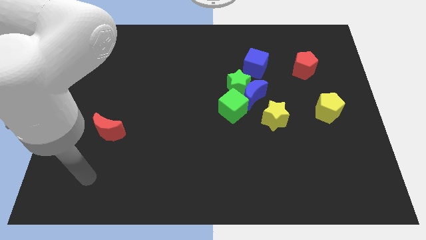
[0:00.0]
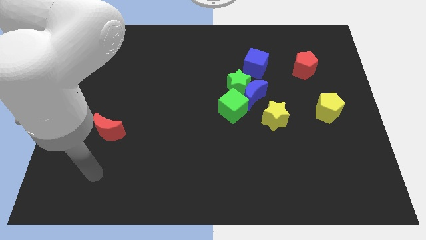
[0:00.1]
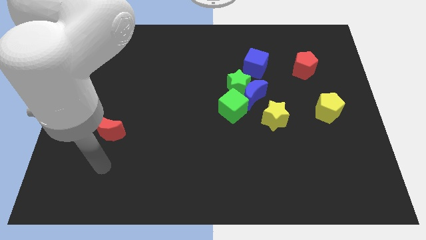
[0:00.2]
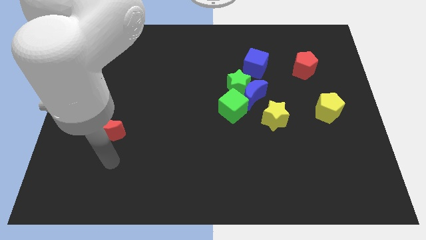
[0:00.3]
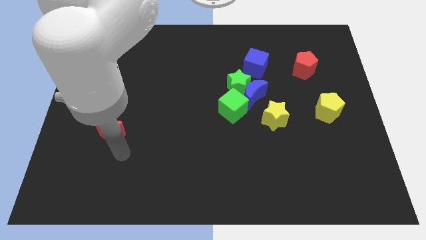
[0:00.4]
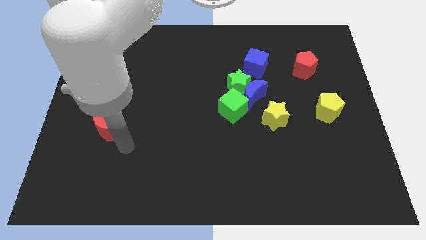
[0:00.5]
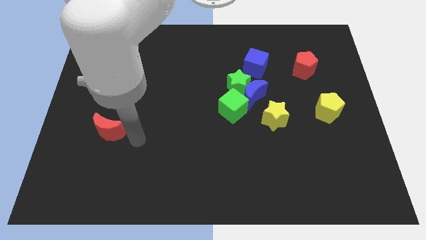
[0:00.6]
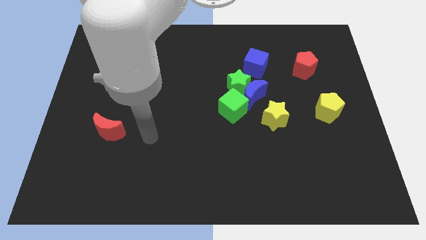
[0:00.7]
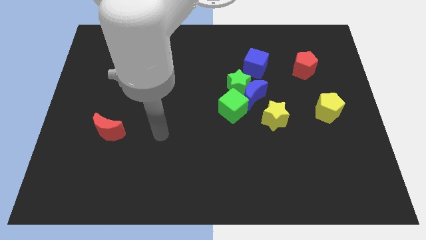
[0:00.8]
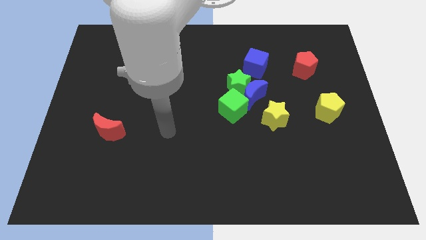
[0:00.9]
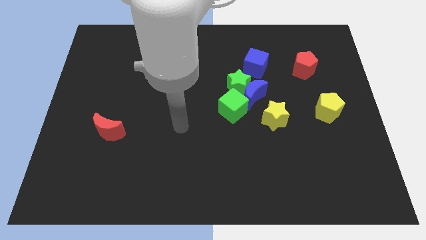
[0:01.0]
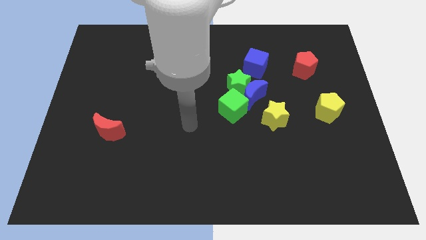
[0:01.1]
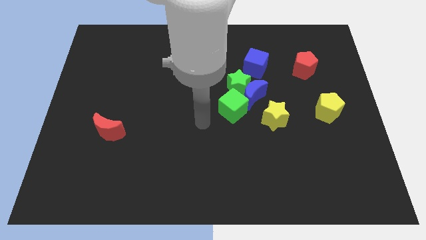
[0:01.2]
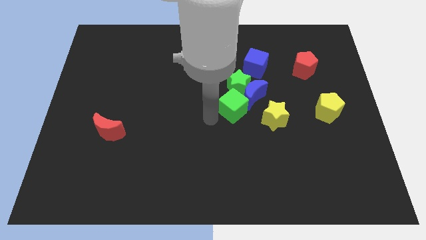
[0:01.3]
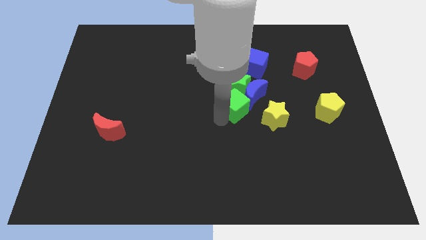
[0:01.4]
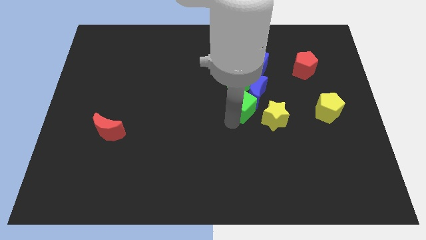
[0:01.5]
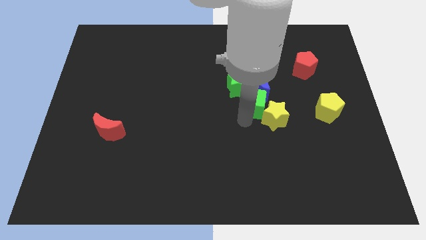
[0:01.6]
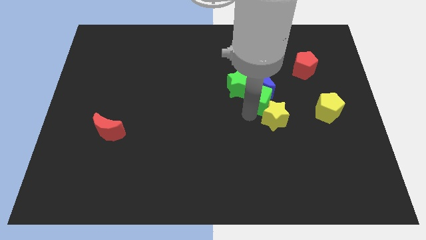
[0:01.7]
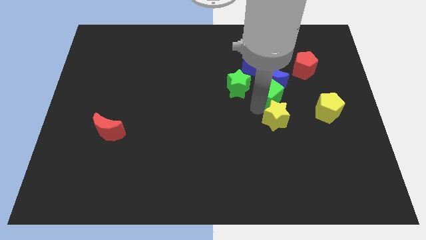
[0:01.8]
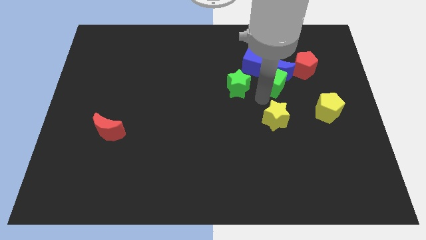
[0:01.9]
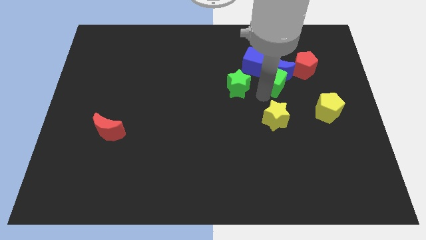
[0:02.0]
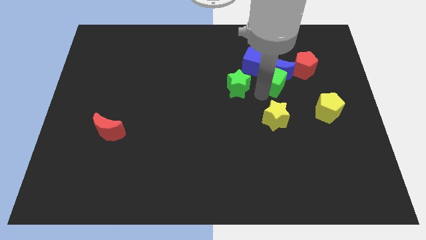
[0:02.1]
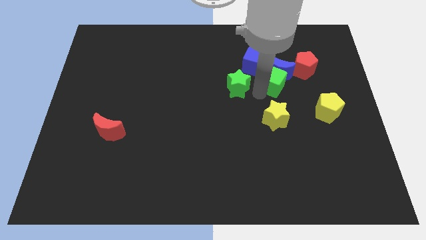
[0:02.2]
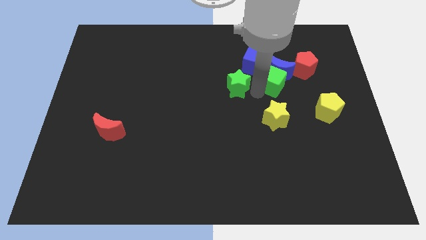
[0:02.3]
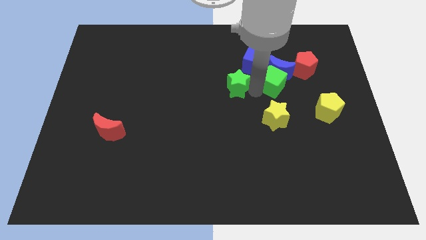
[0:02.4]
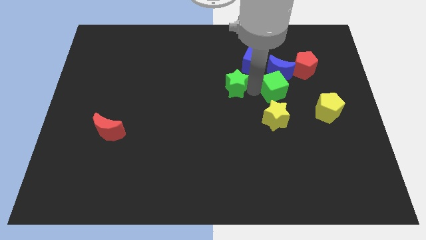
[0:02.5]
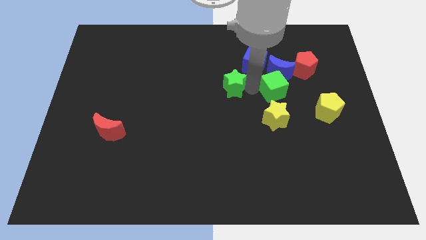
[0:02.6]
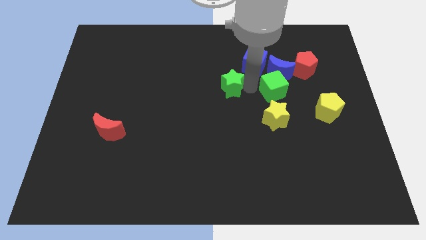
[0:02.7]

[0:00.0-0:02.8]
pull the green star apart from the blue moon, green cube, and blue cube

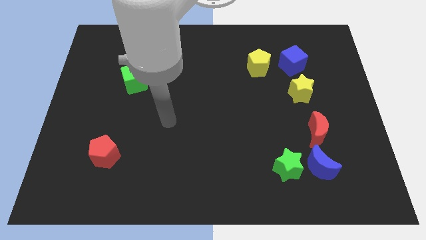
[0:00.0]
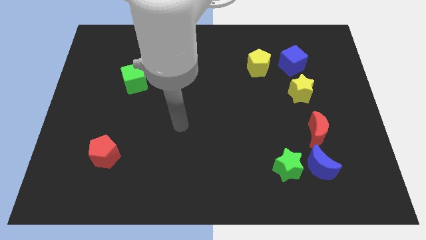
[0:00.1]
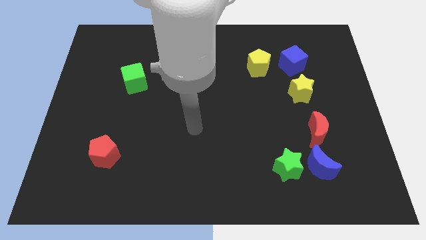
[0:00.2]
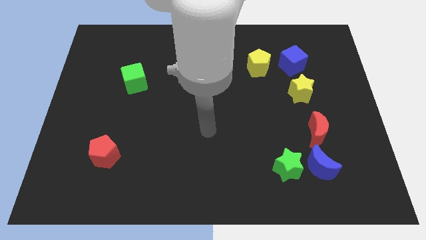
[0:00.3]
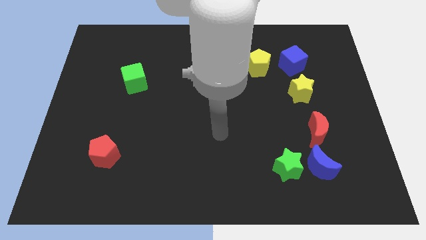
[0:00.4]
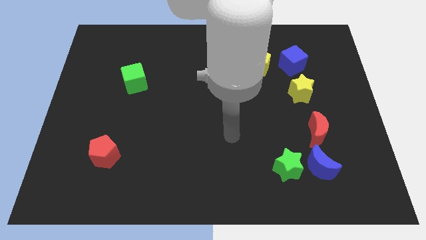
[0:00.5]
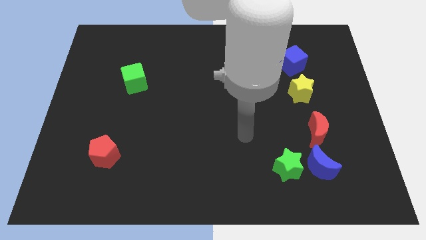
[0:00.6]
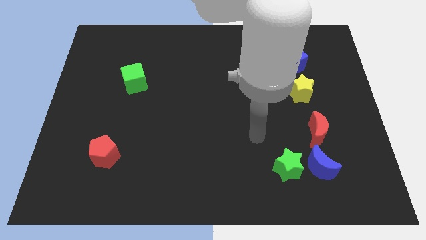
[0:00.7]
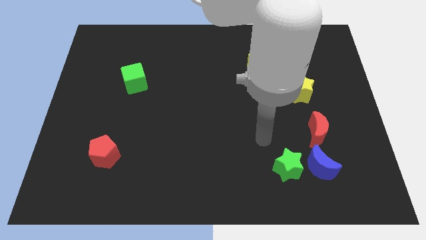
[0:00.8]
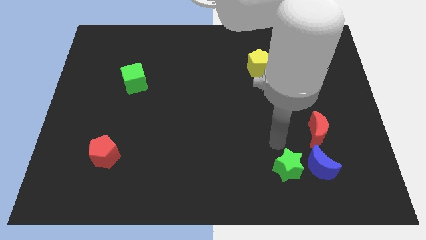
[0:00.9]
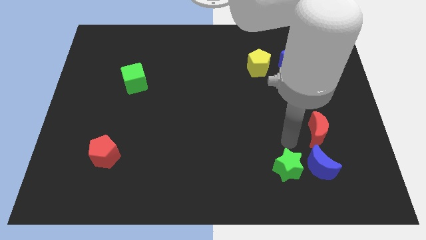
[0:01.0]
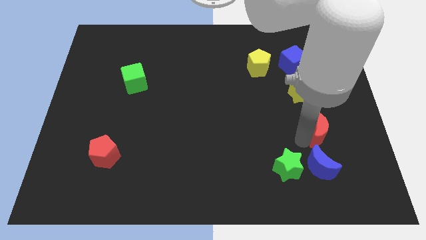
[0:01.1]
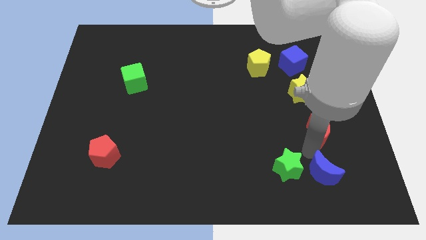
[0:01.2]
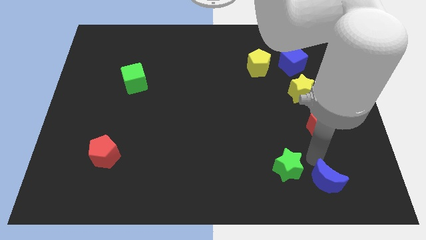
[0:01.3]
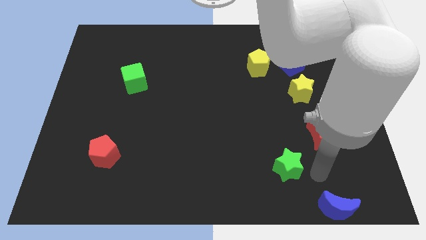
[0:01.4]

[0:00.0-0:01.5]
separate the green star from the blue moon

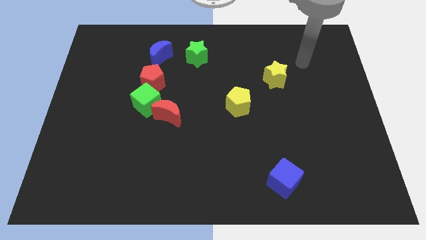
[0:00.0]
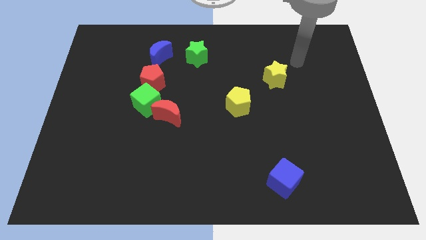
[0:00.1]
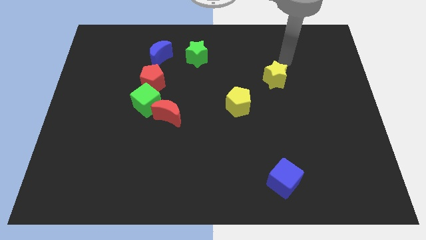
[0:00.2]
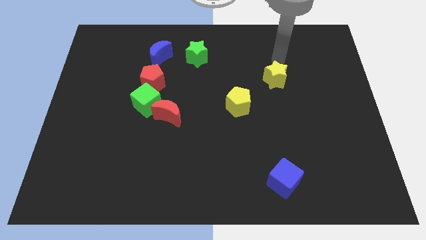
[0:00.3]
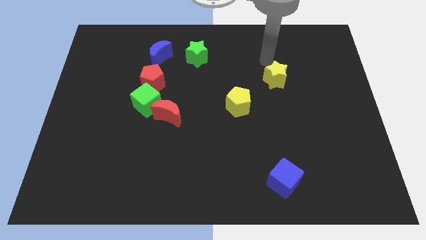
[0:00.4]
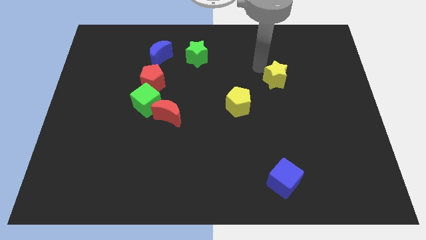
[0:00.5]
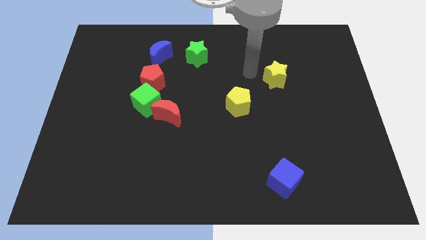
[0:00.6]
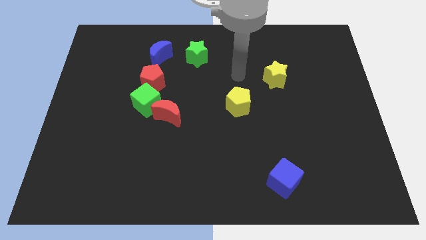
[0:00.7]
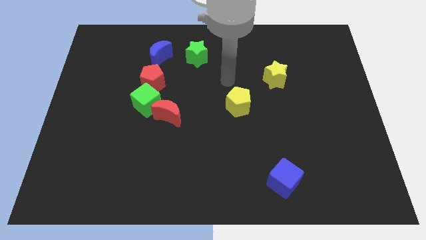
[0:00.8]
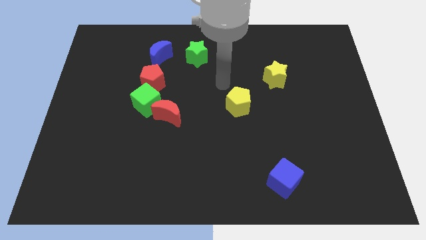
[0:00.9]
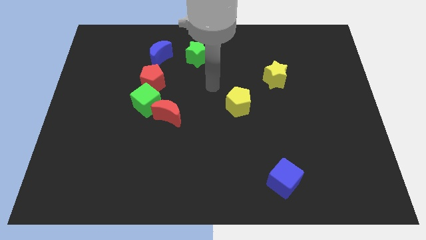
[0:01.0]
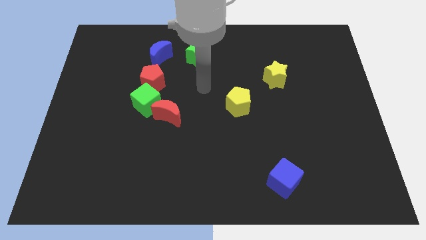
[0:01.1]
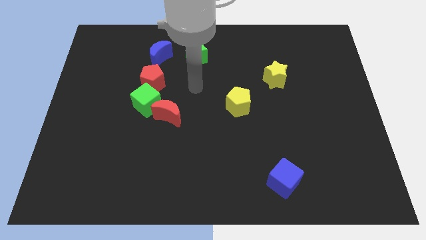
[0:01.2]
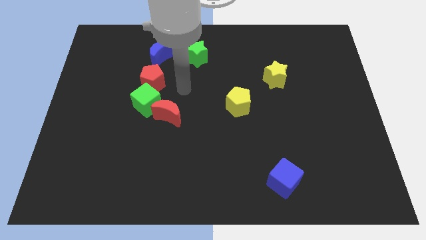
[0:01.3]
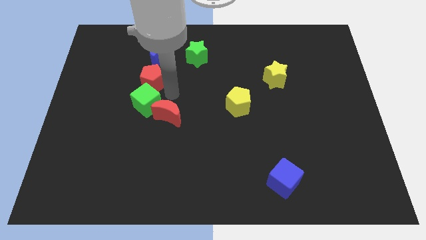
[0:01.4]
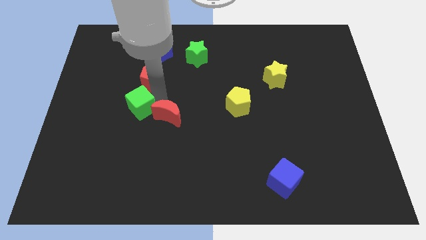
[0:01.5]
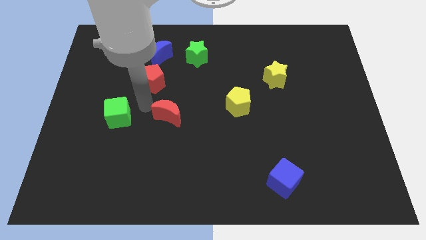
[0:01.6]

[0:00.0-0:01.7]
move the red moon away from the green cube

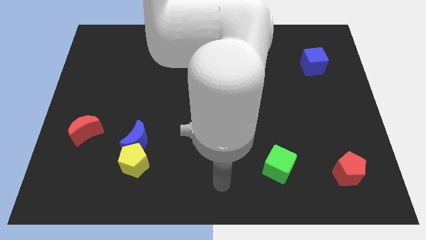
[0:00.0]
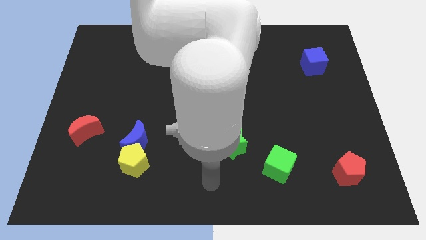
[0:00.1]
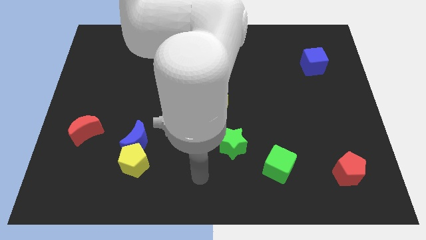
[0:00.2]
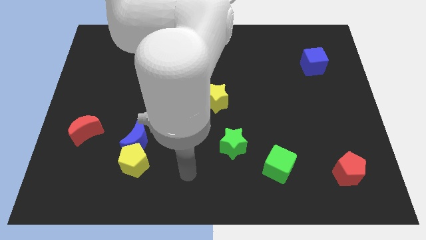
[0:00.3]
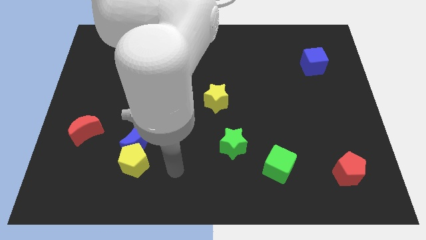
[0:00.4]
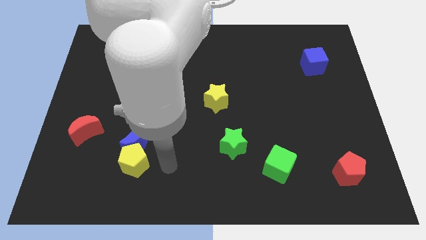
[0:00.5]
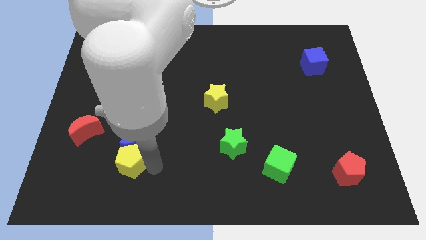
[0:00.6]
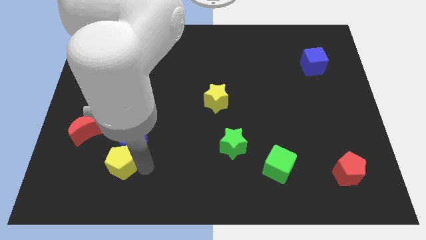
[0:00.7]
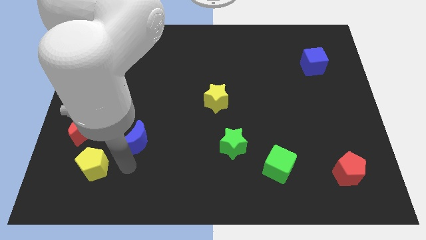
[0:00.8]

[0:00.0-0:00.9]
pull the blue moon apart from the yellow pentagon

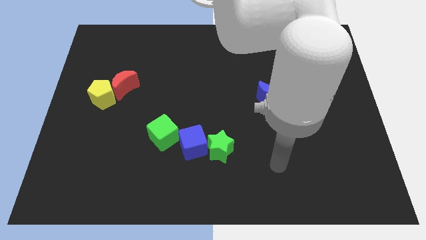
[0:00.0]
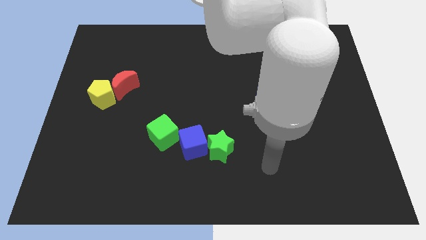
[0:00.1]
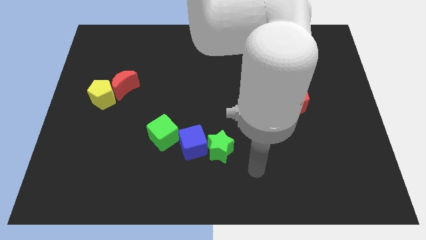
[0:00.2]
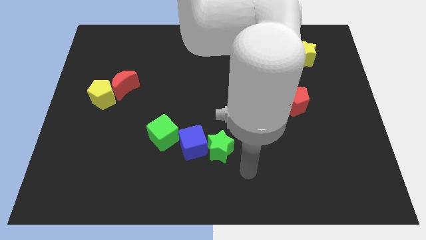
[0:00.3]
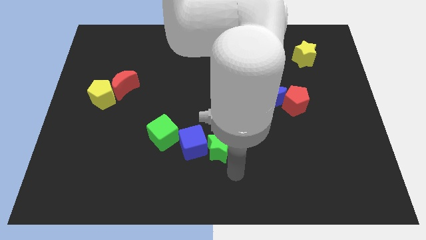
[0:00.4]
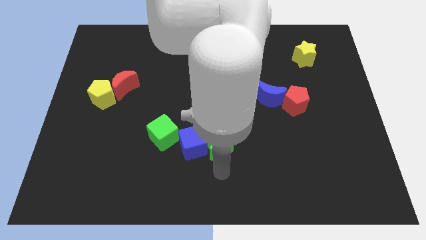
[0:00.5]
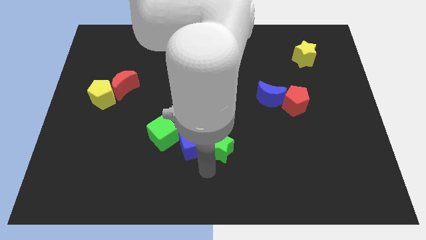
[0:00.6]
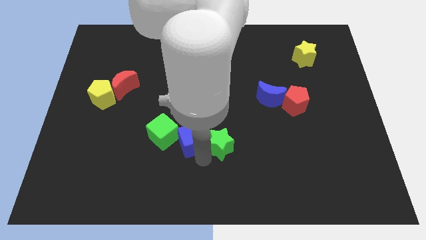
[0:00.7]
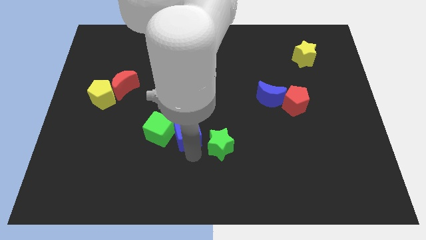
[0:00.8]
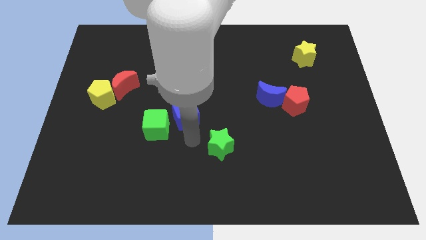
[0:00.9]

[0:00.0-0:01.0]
pull the green star apart from the blue cube

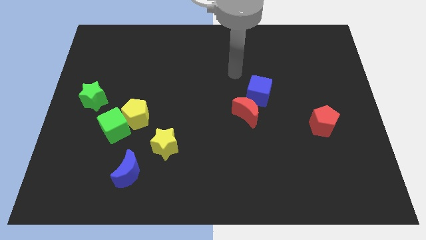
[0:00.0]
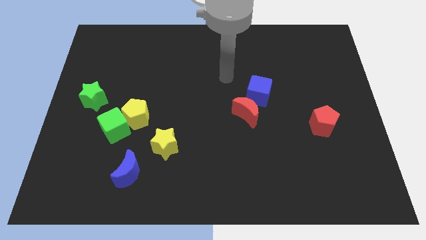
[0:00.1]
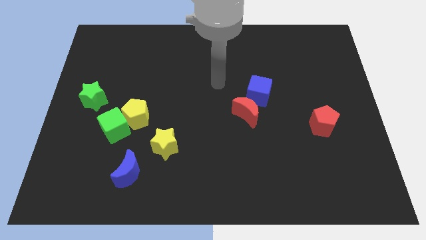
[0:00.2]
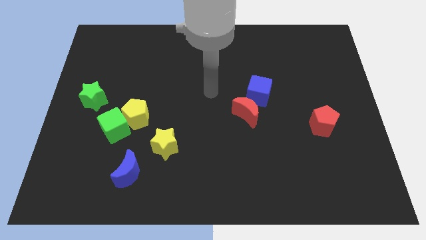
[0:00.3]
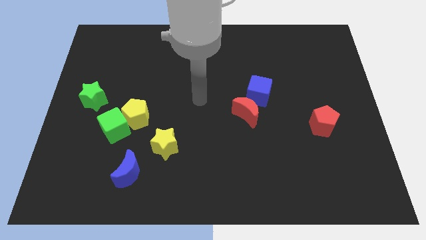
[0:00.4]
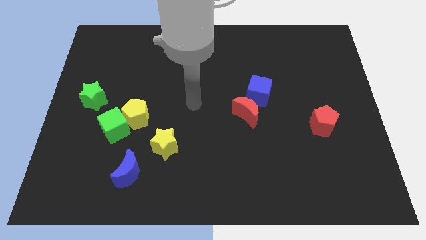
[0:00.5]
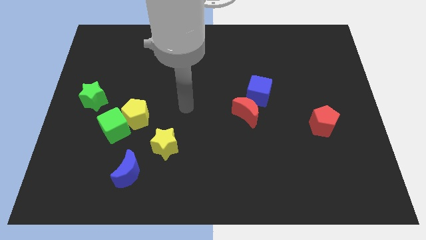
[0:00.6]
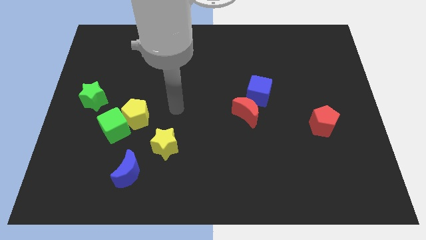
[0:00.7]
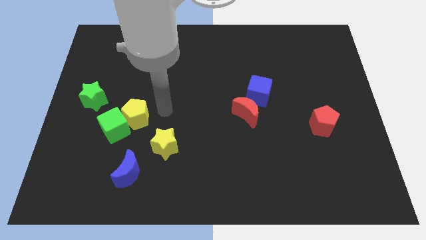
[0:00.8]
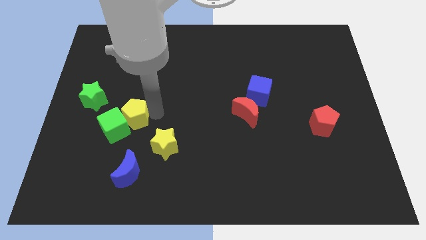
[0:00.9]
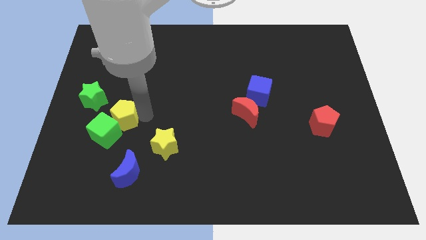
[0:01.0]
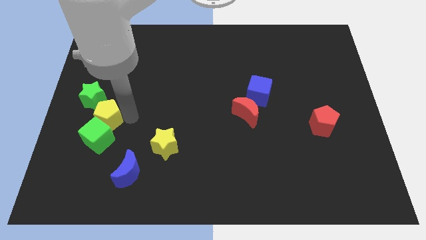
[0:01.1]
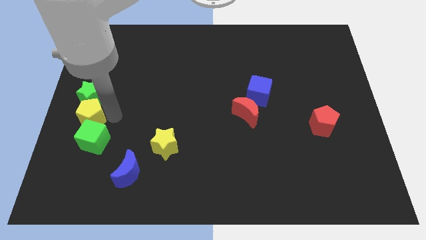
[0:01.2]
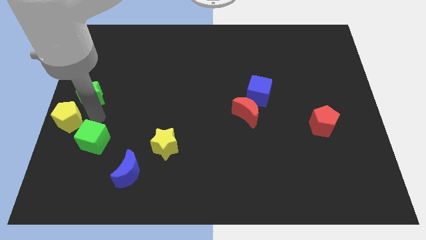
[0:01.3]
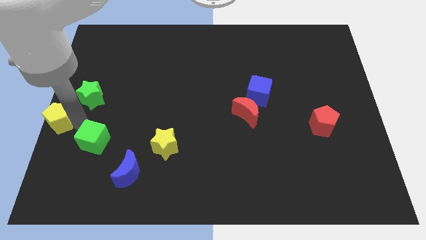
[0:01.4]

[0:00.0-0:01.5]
move the green cube away from the yellow pentagon
